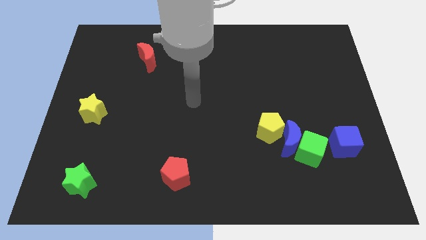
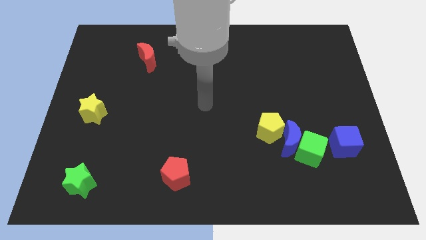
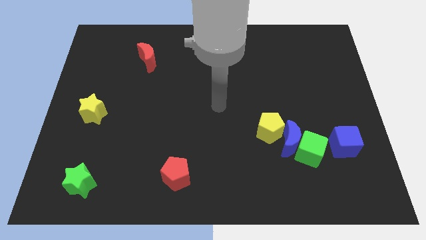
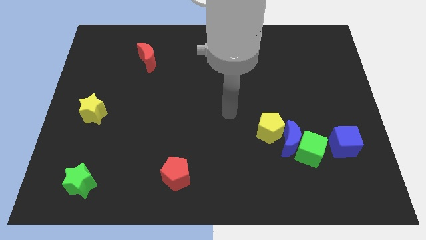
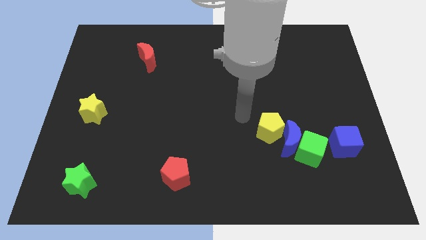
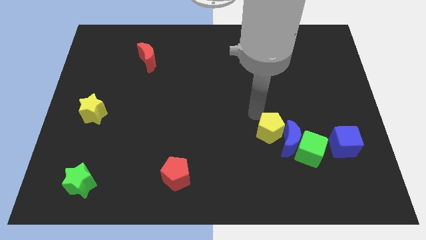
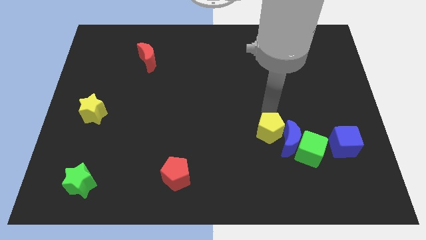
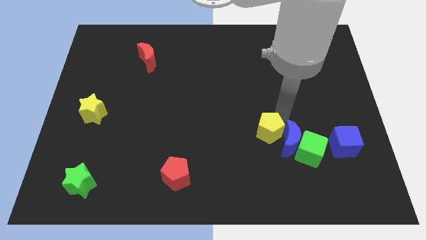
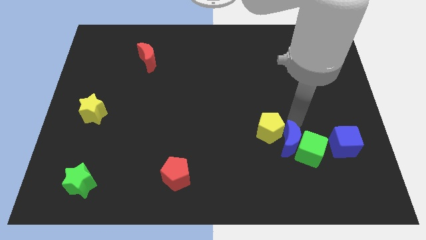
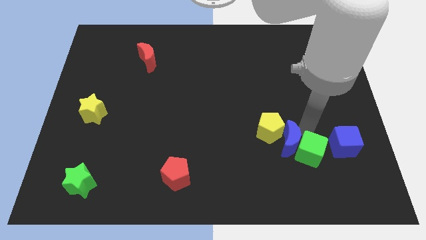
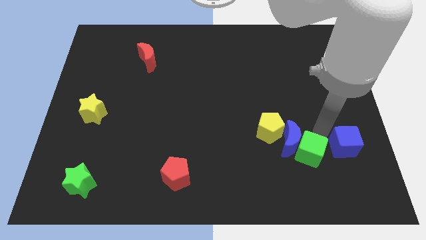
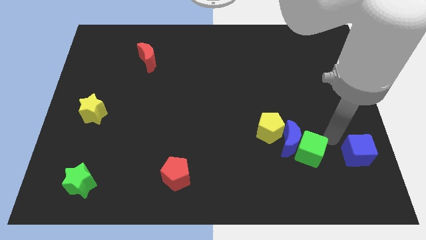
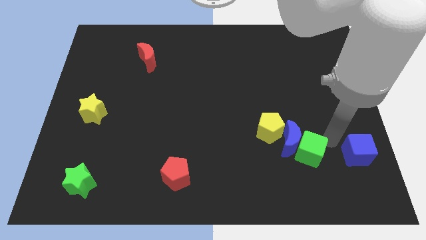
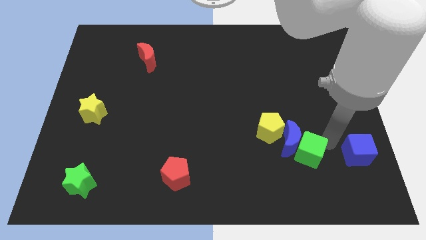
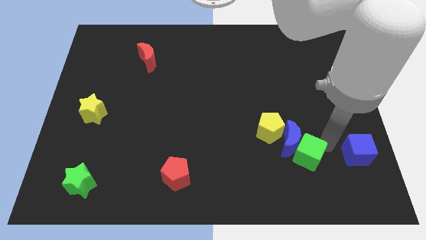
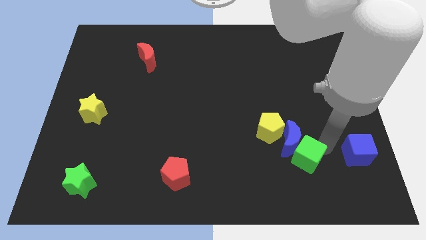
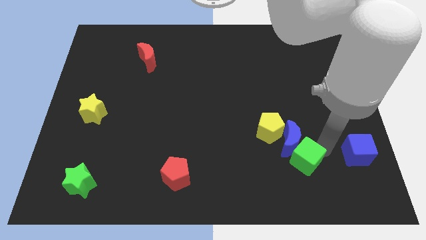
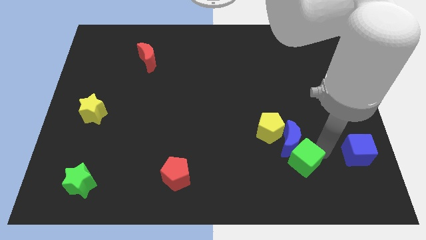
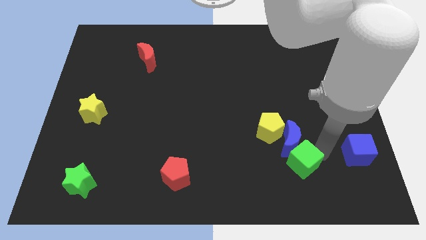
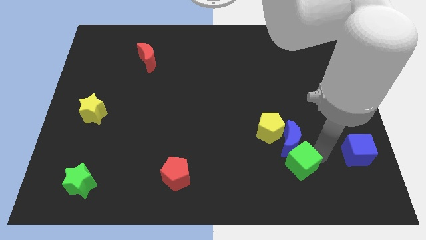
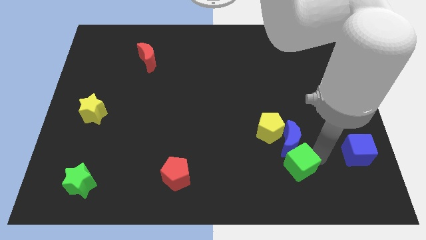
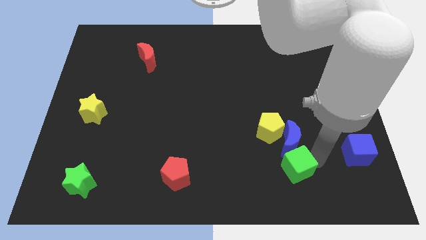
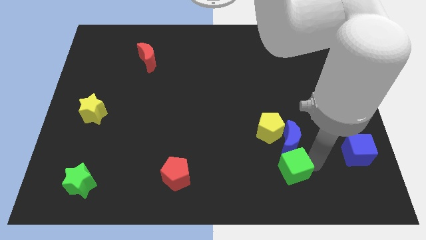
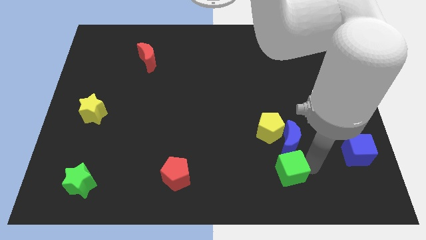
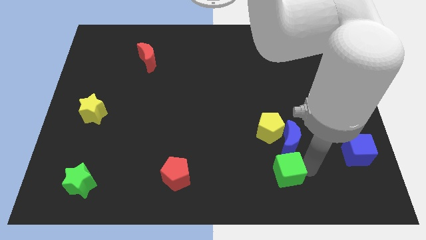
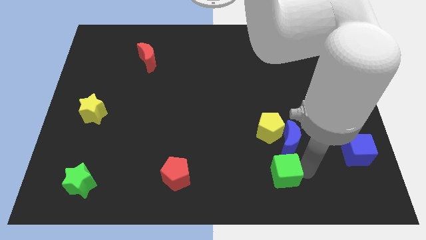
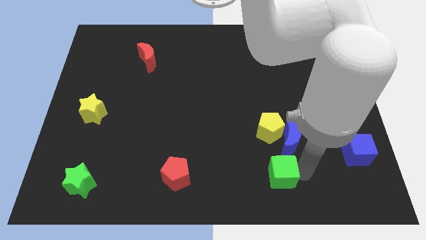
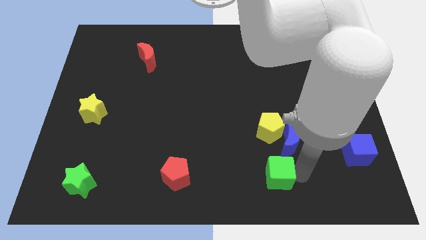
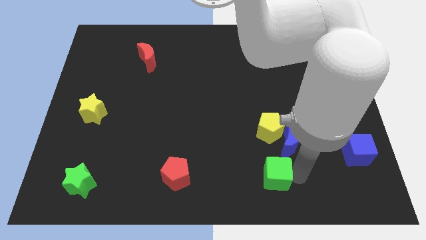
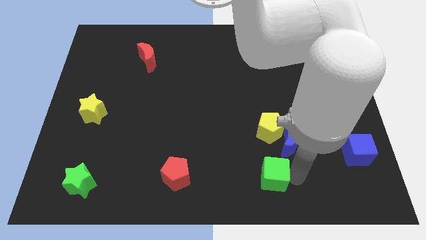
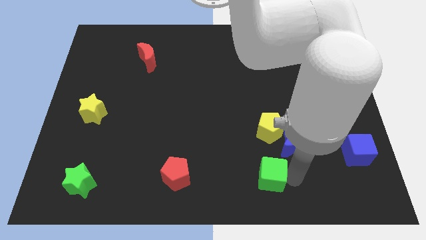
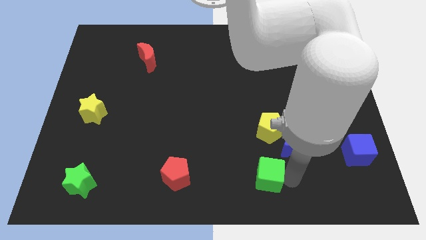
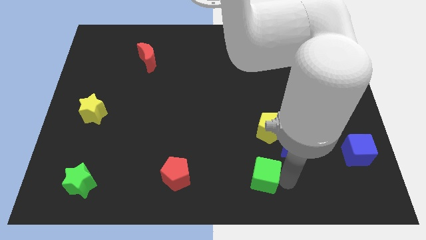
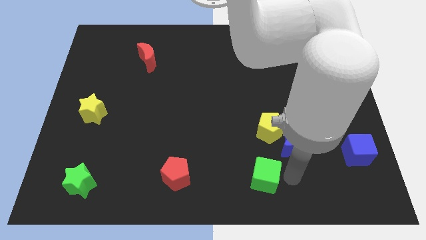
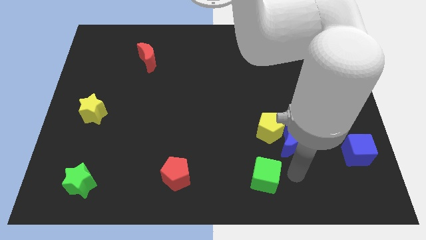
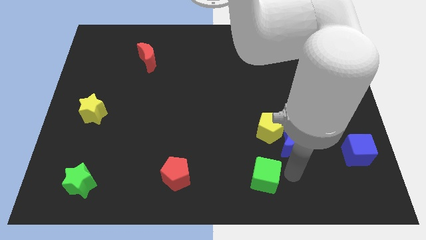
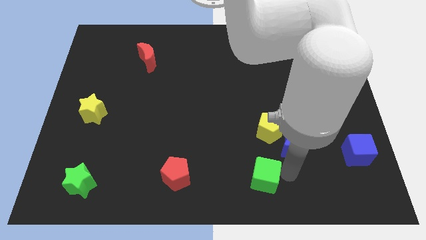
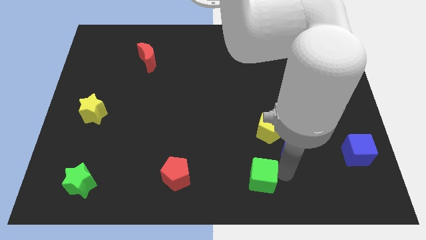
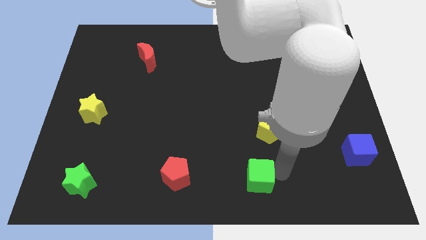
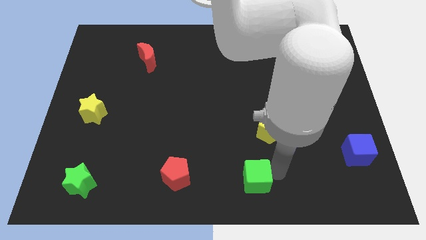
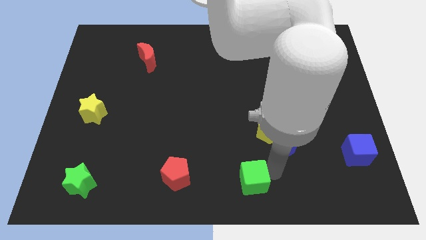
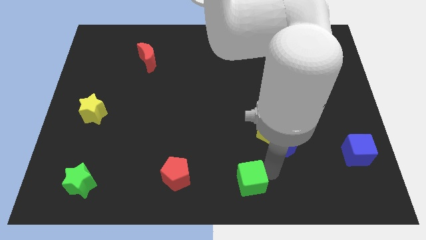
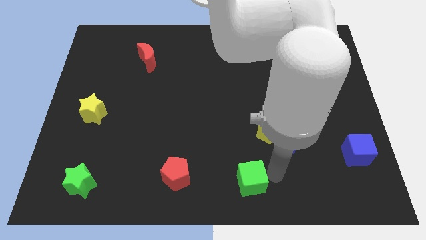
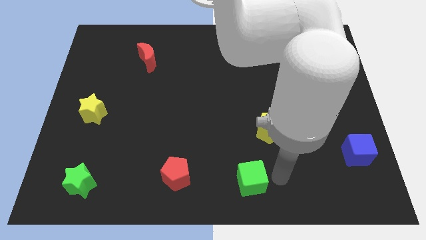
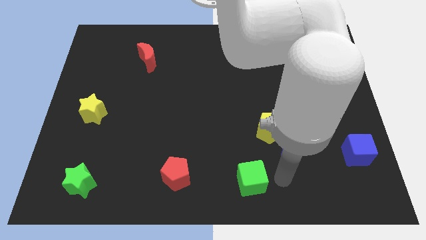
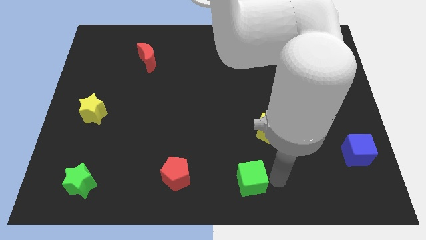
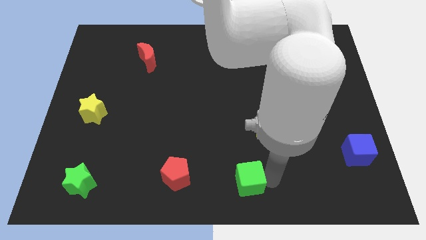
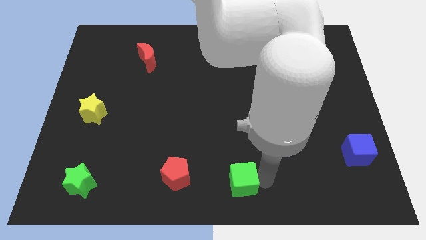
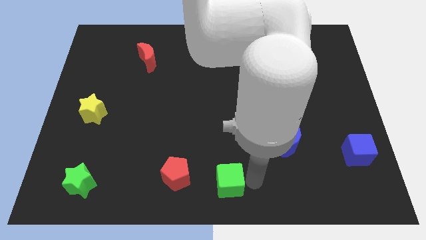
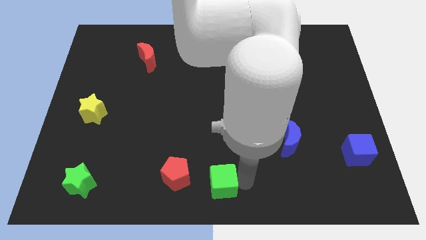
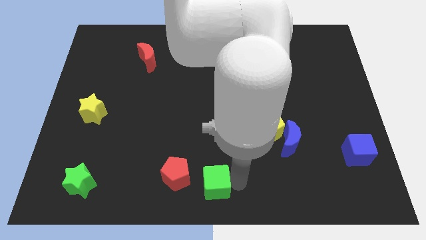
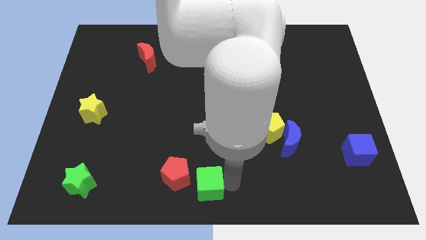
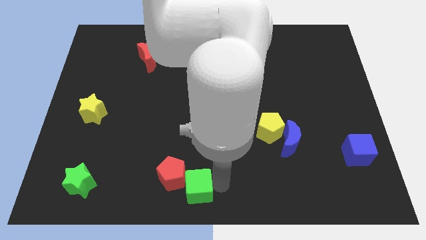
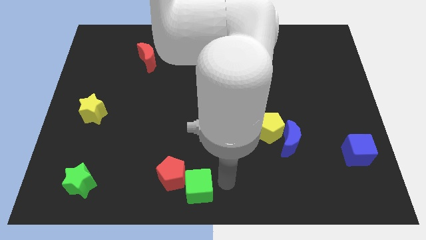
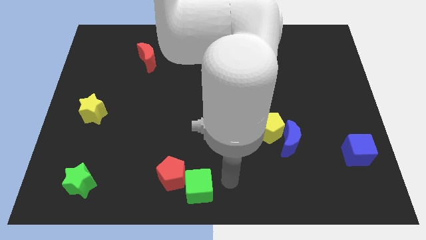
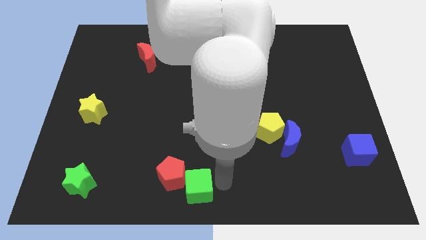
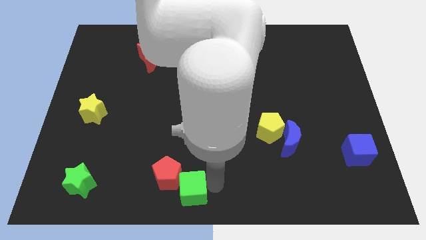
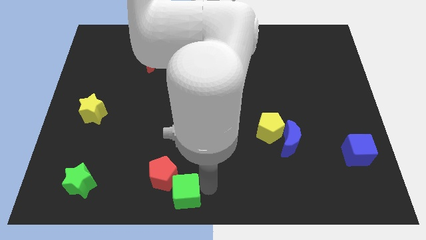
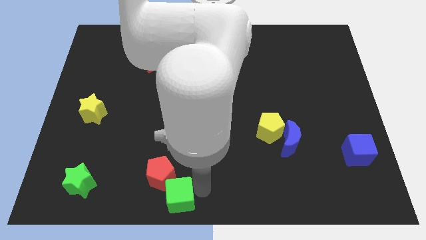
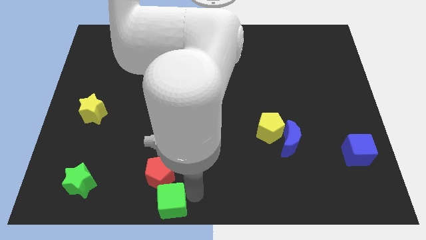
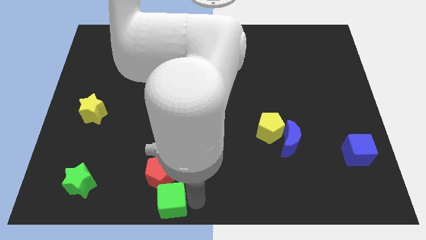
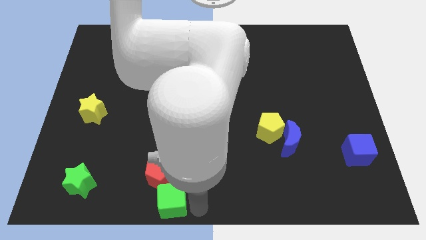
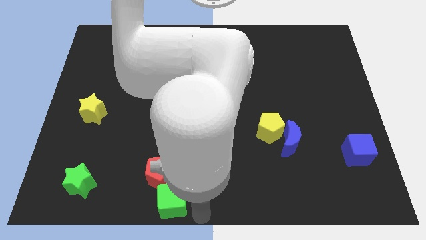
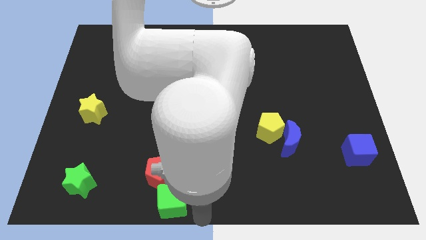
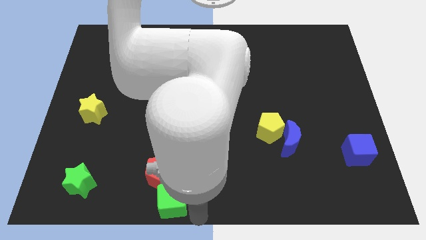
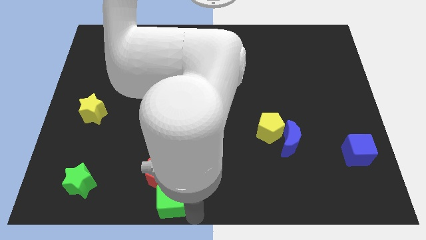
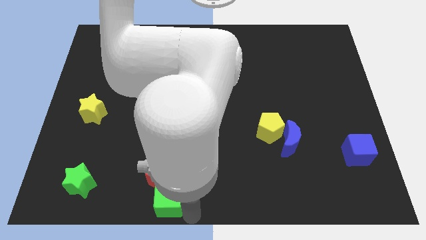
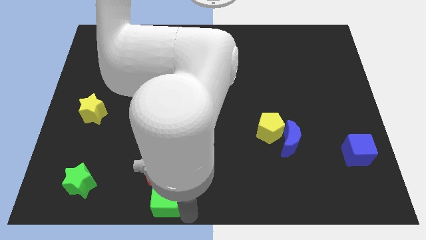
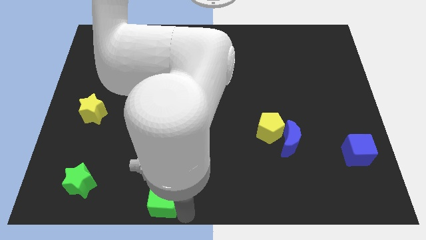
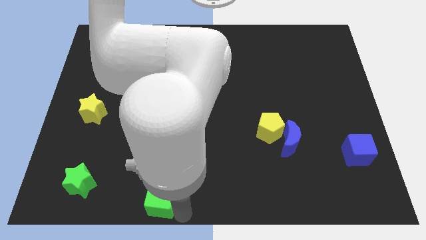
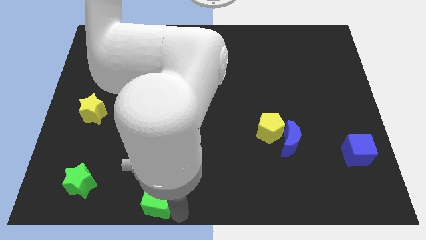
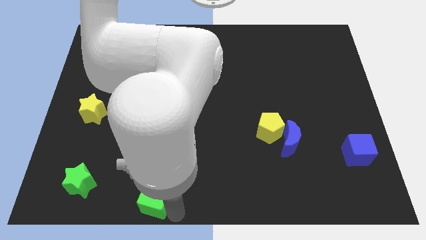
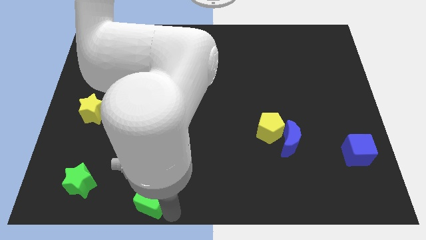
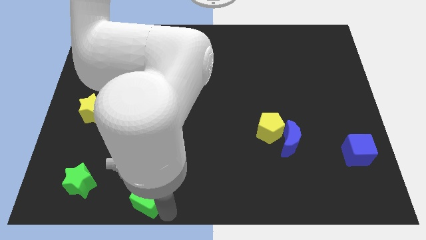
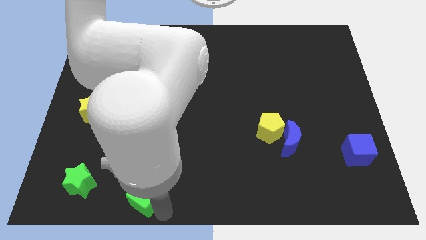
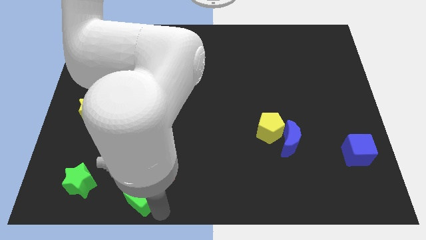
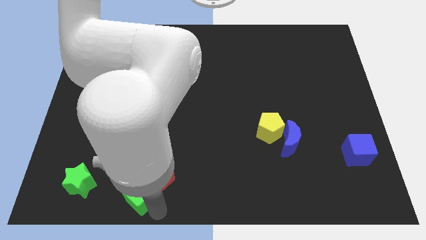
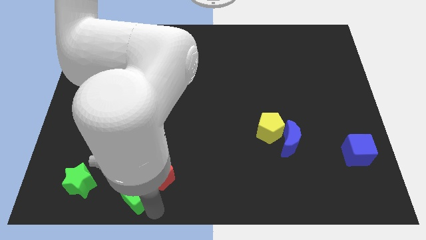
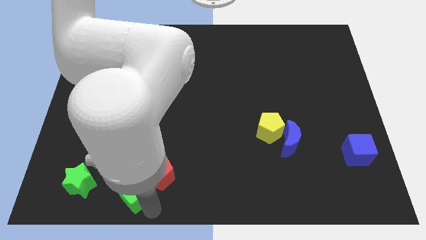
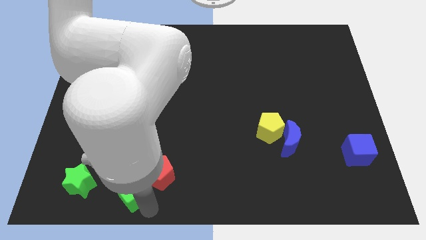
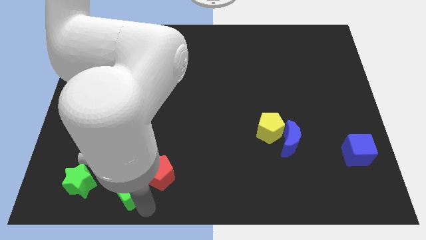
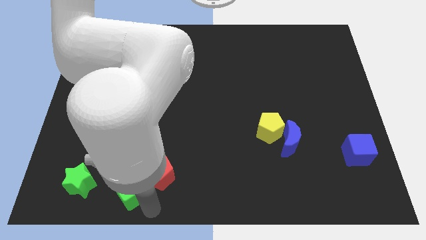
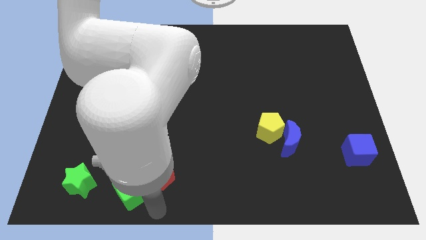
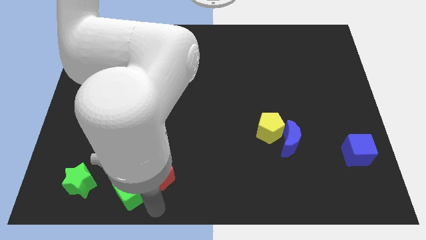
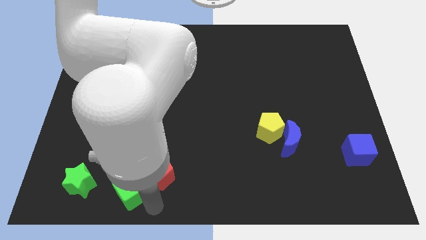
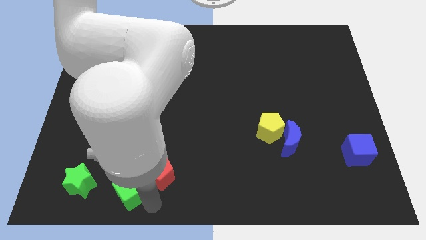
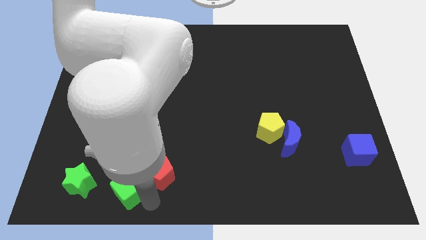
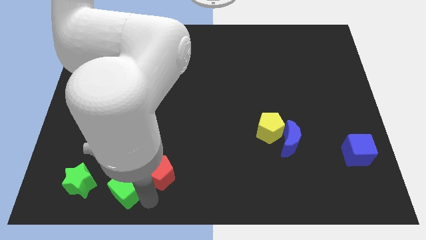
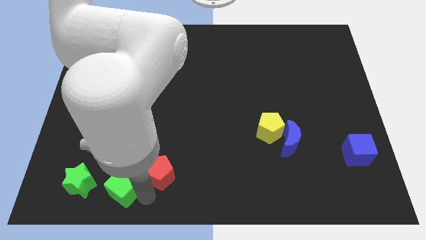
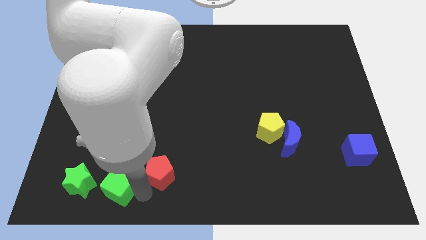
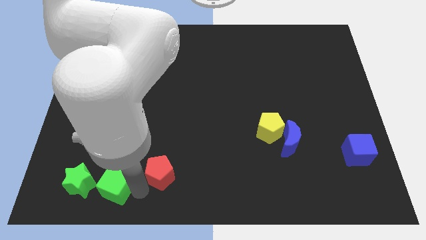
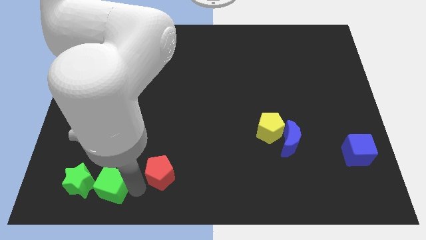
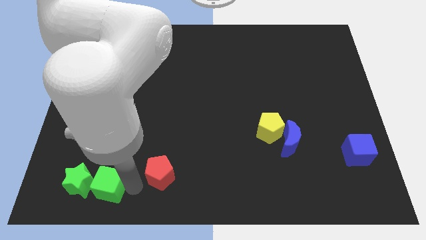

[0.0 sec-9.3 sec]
slide the green cube to the green star
